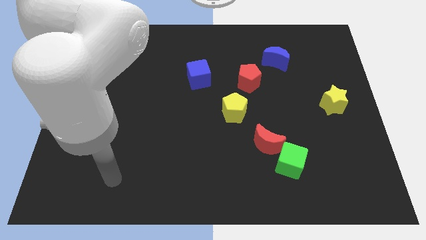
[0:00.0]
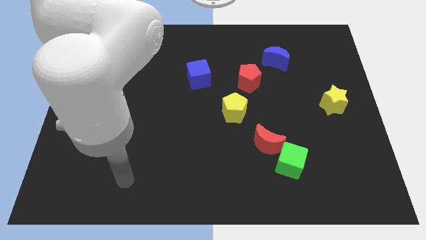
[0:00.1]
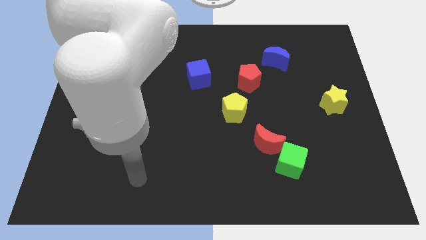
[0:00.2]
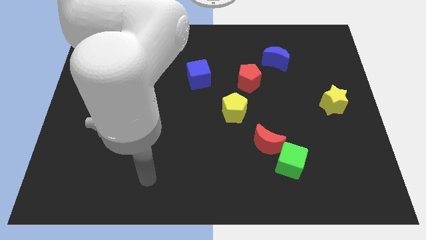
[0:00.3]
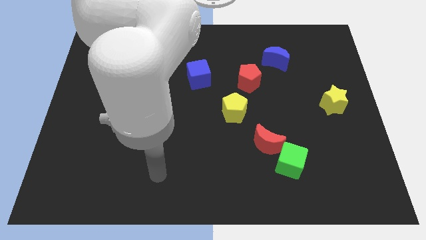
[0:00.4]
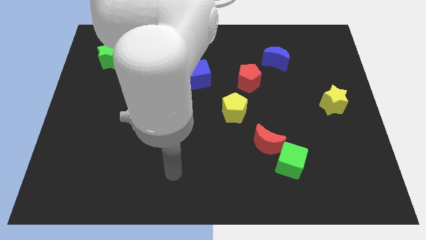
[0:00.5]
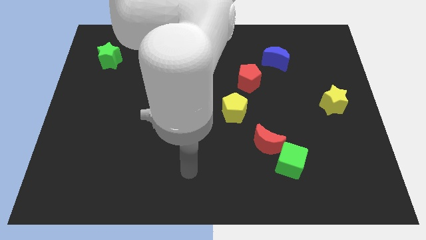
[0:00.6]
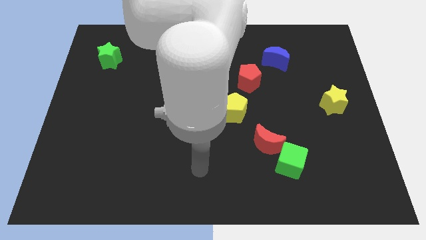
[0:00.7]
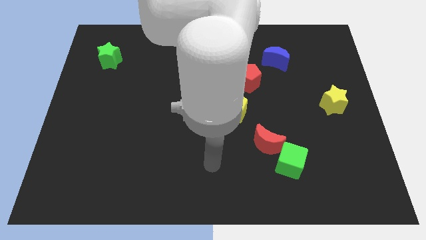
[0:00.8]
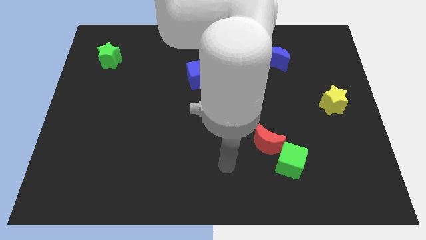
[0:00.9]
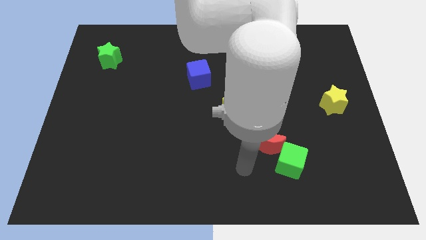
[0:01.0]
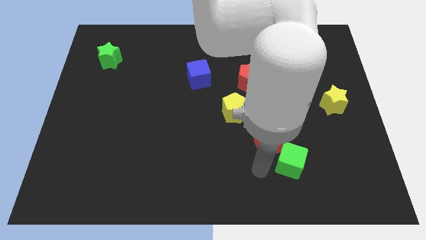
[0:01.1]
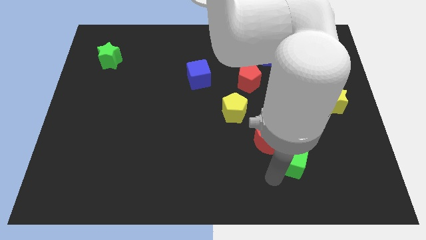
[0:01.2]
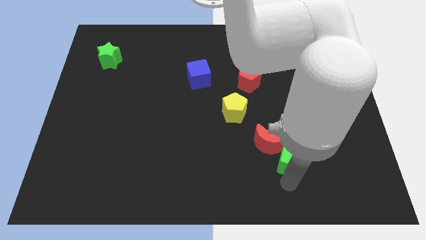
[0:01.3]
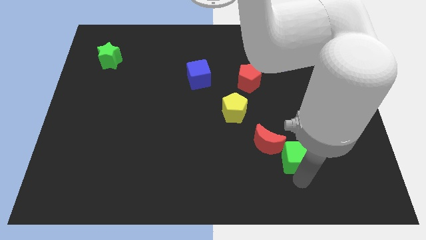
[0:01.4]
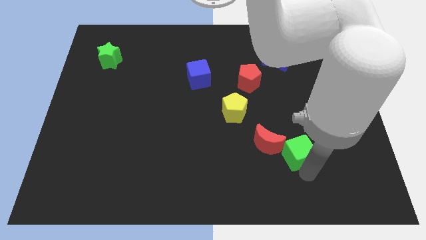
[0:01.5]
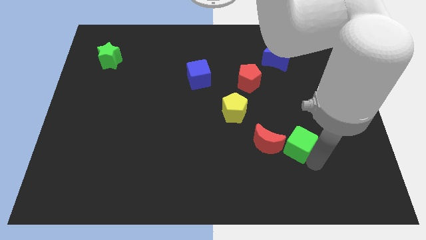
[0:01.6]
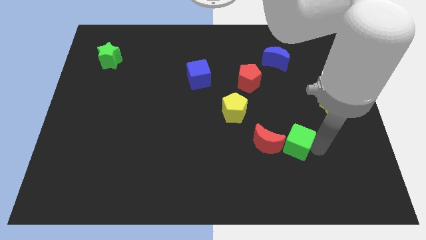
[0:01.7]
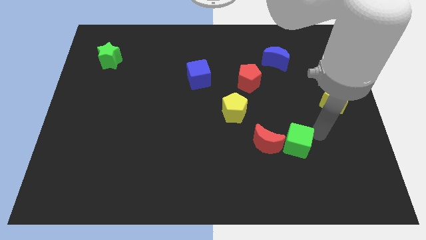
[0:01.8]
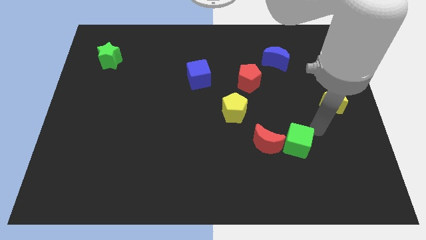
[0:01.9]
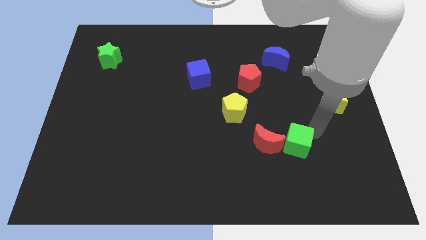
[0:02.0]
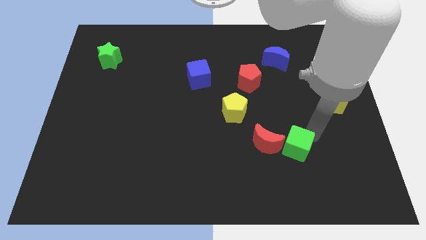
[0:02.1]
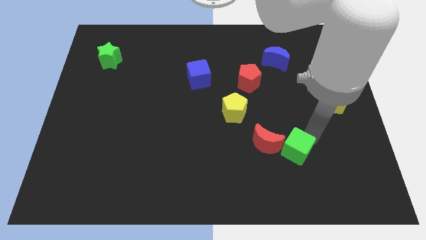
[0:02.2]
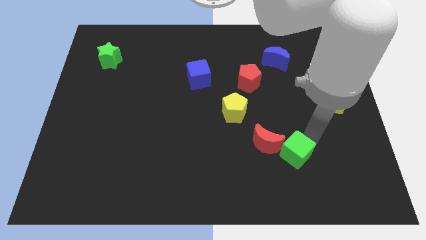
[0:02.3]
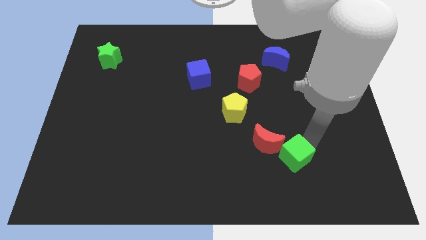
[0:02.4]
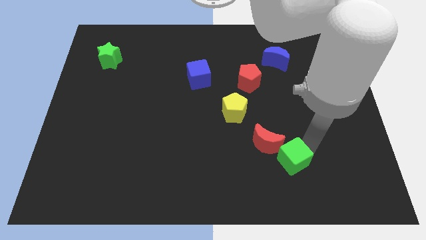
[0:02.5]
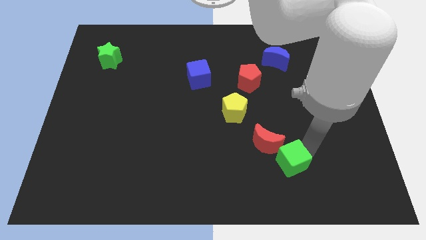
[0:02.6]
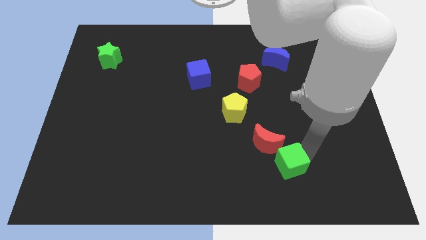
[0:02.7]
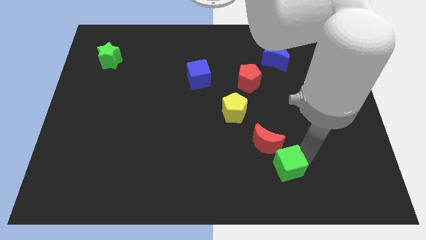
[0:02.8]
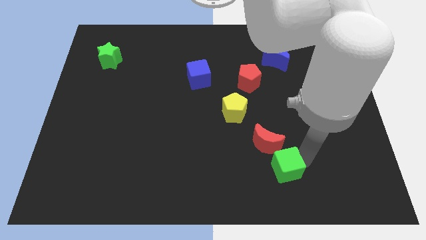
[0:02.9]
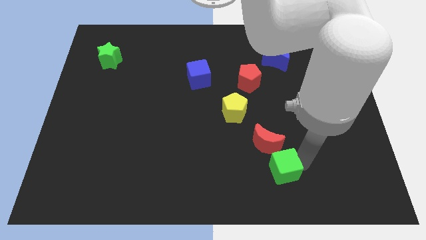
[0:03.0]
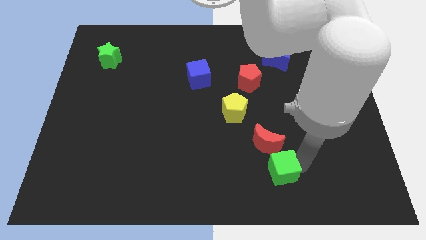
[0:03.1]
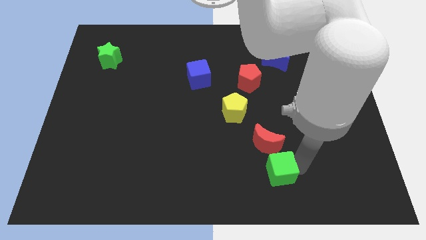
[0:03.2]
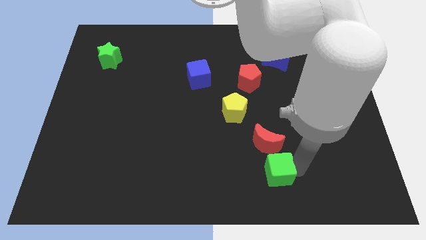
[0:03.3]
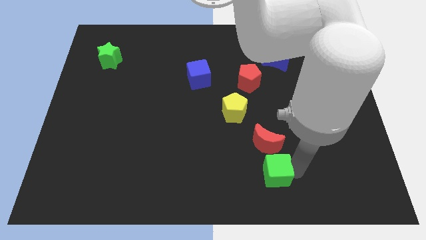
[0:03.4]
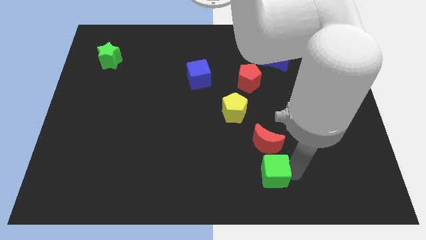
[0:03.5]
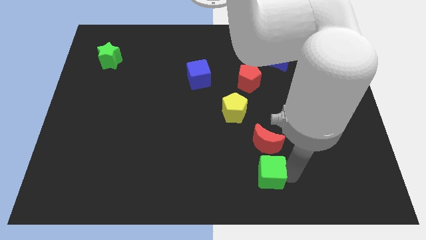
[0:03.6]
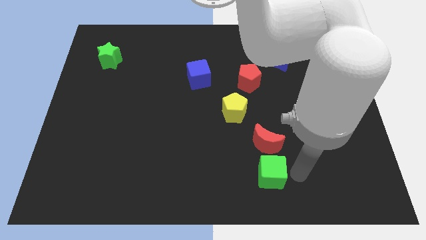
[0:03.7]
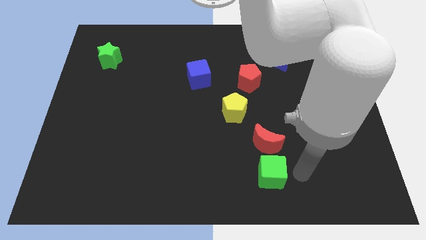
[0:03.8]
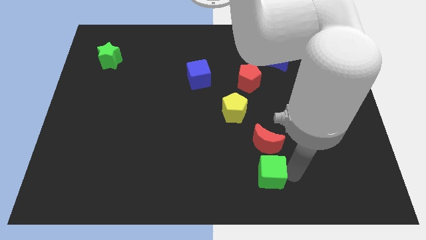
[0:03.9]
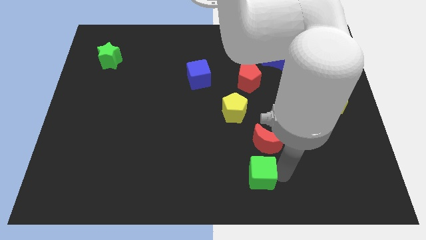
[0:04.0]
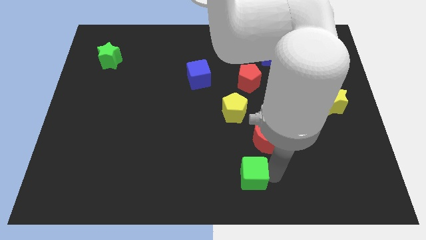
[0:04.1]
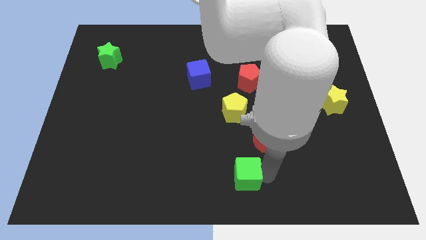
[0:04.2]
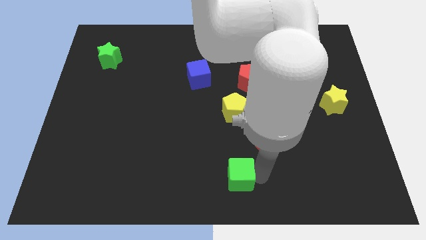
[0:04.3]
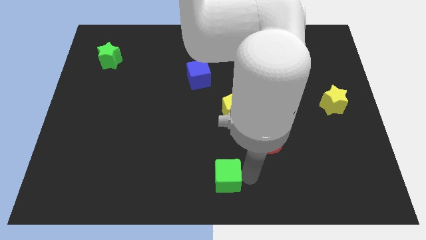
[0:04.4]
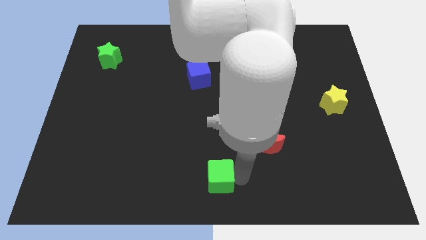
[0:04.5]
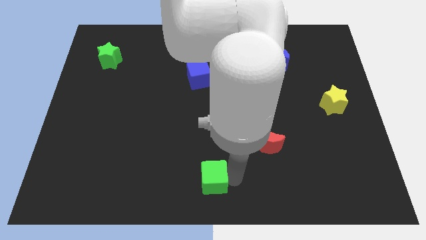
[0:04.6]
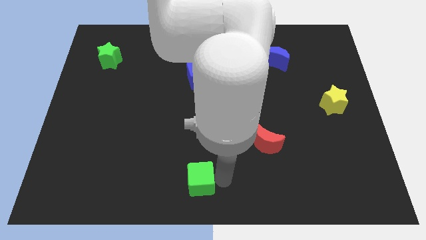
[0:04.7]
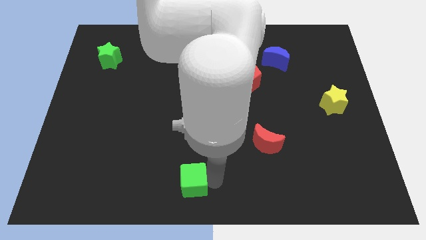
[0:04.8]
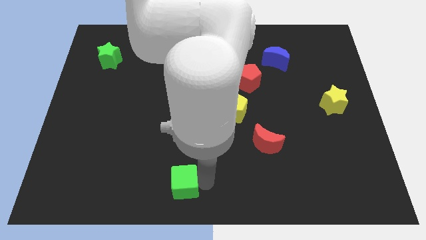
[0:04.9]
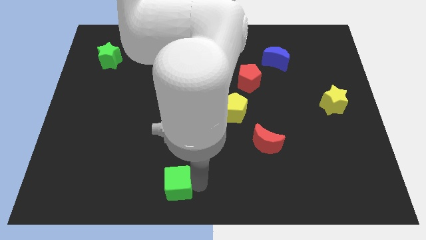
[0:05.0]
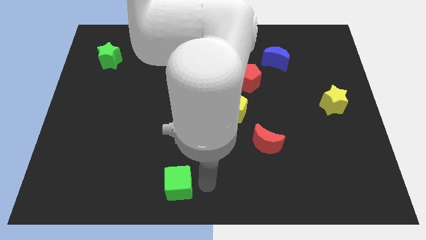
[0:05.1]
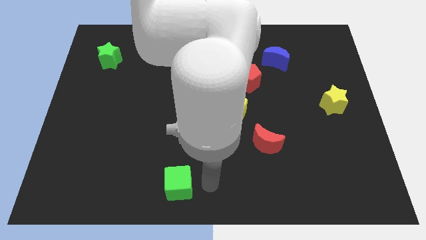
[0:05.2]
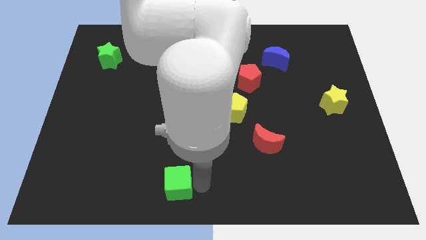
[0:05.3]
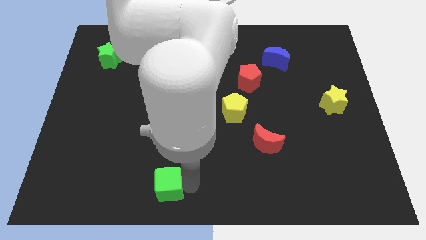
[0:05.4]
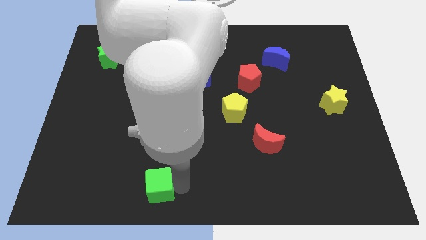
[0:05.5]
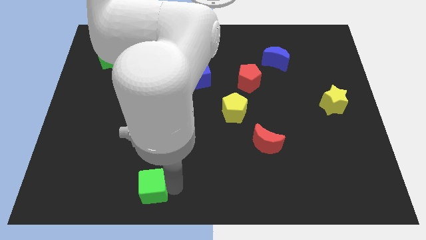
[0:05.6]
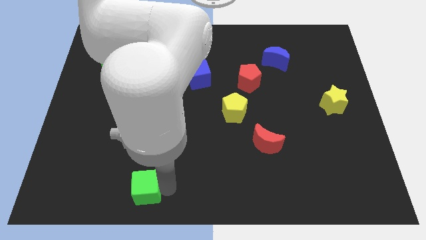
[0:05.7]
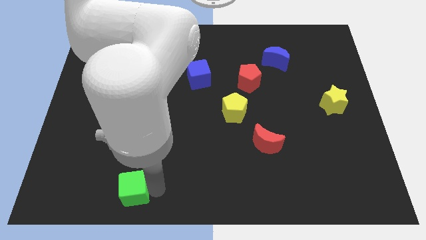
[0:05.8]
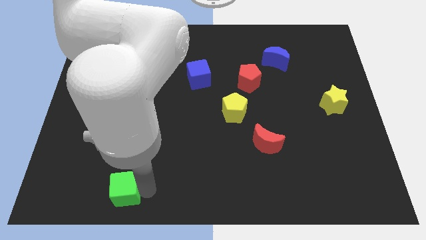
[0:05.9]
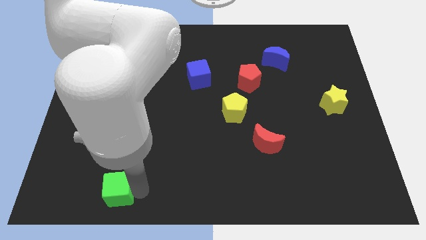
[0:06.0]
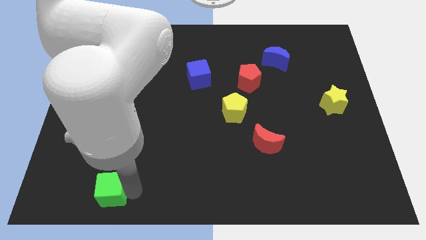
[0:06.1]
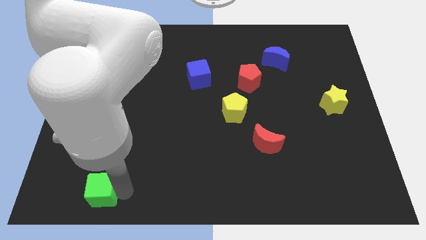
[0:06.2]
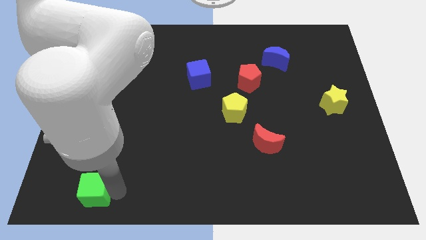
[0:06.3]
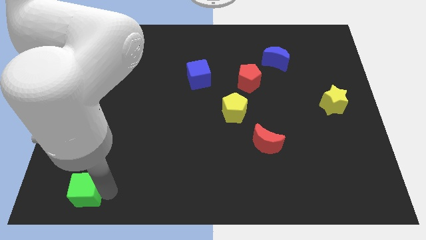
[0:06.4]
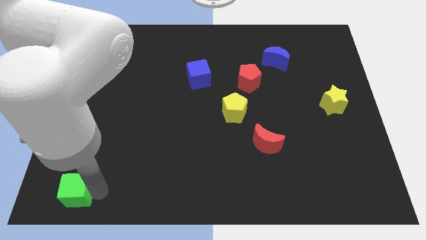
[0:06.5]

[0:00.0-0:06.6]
push the green cube to the lower left corner

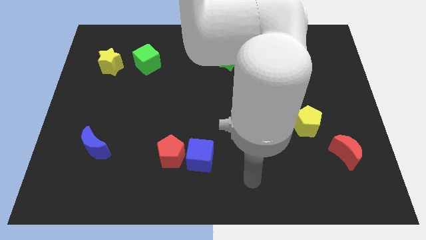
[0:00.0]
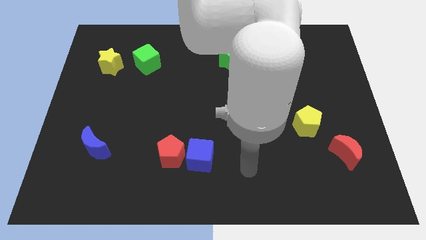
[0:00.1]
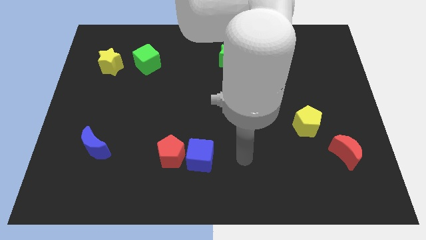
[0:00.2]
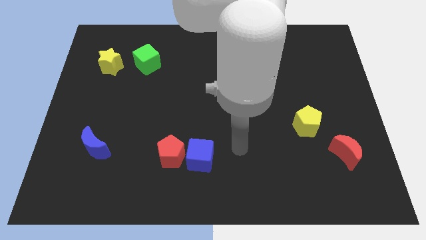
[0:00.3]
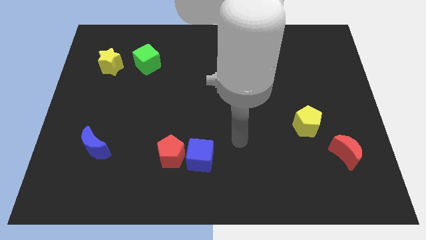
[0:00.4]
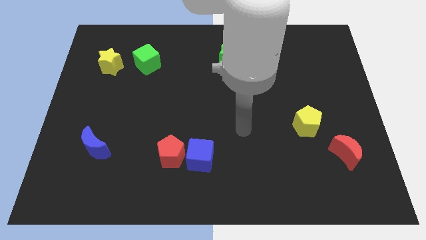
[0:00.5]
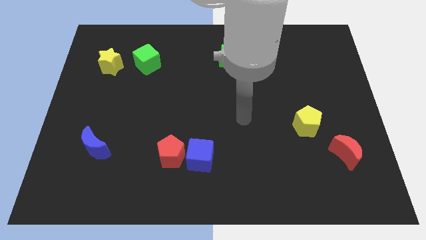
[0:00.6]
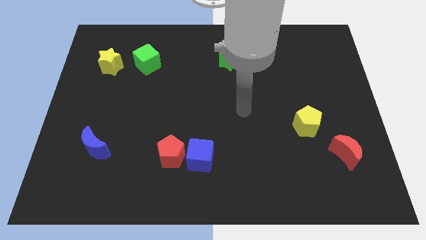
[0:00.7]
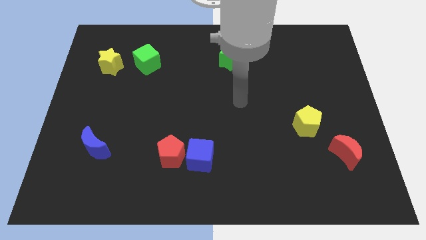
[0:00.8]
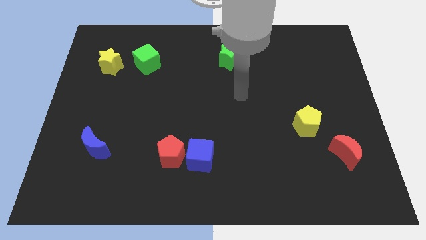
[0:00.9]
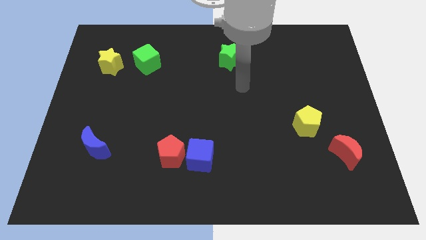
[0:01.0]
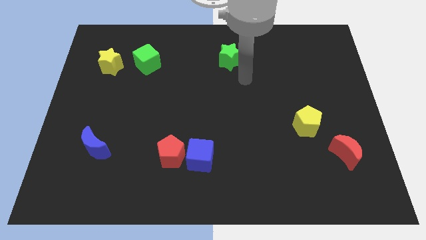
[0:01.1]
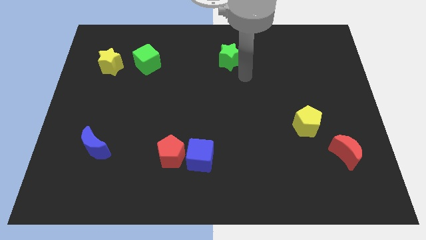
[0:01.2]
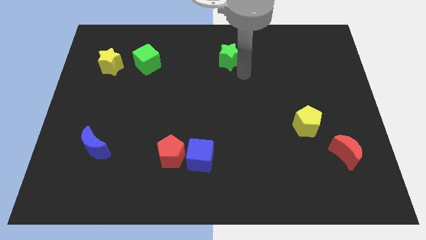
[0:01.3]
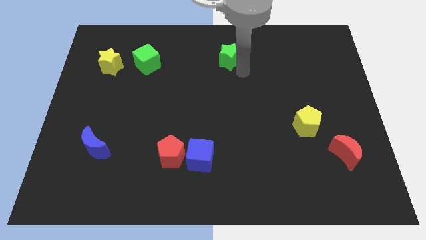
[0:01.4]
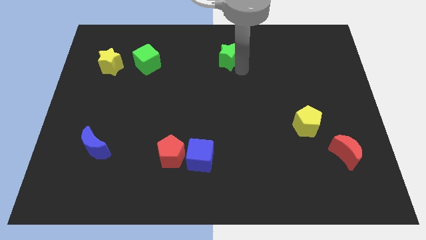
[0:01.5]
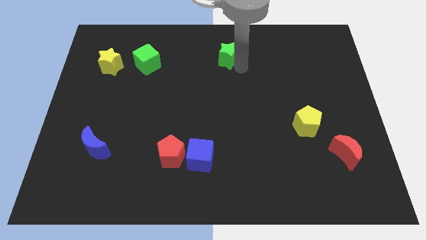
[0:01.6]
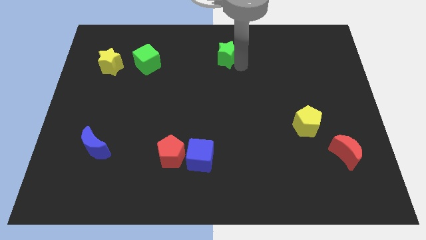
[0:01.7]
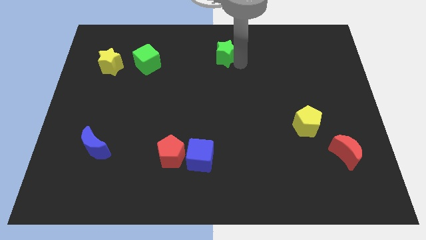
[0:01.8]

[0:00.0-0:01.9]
move the green star to the top
